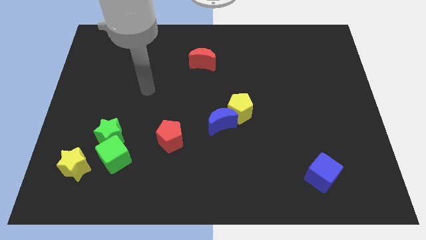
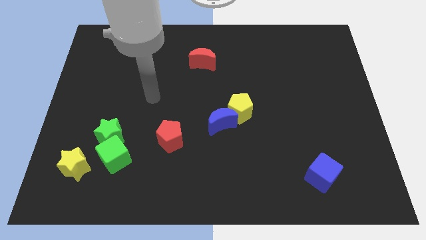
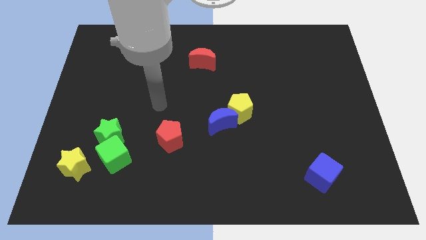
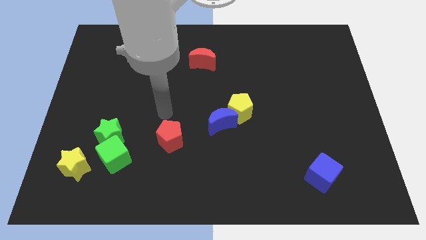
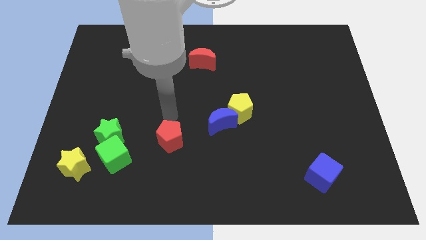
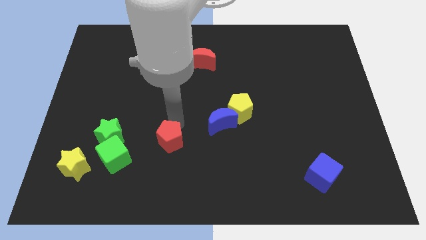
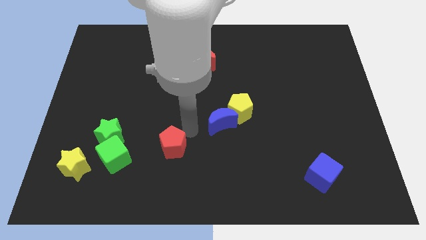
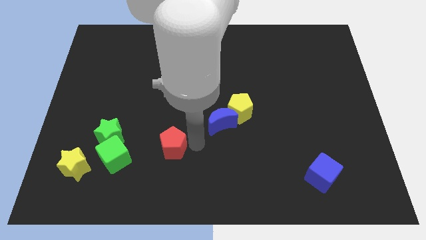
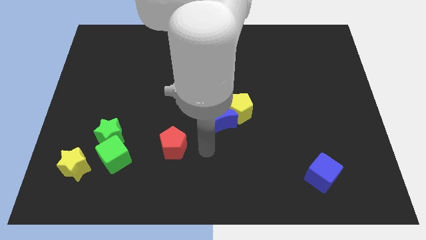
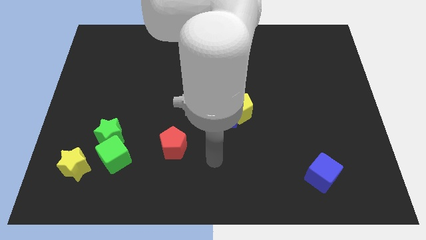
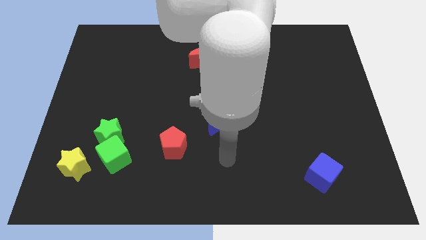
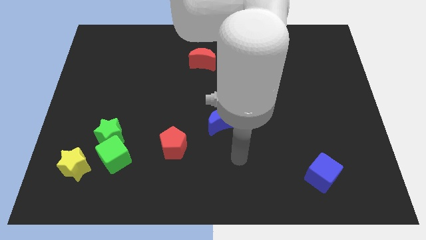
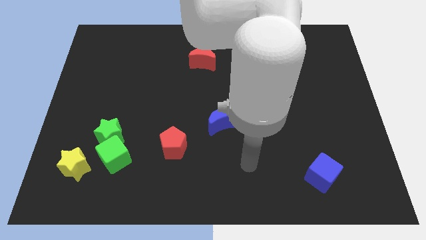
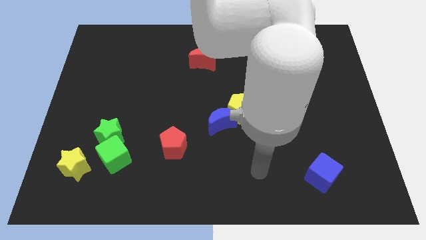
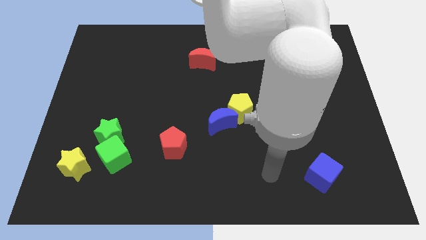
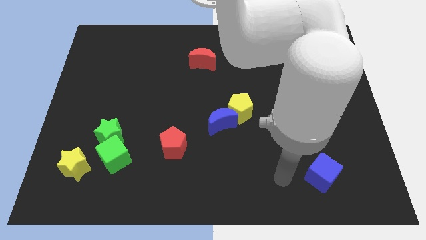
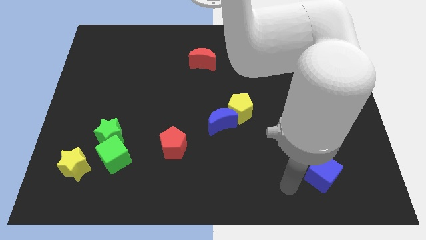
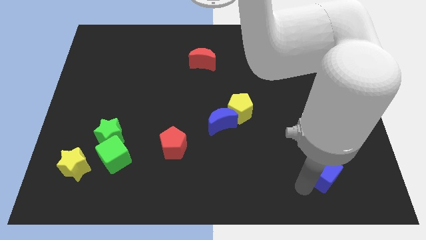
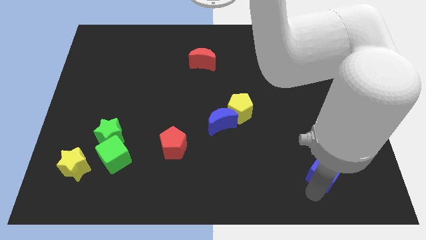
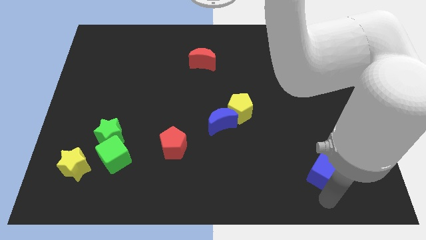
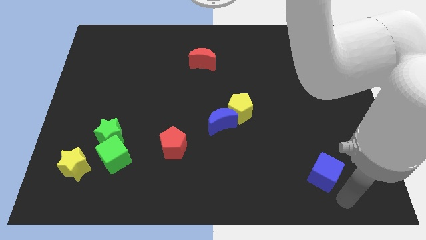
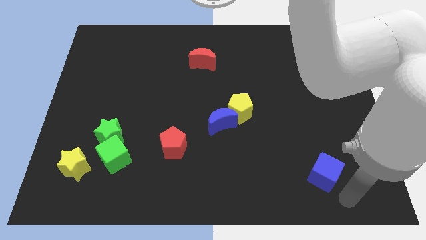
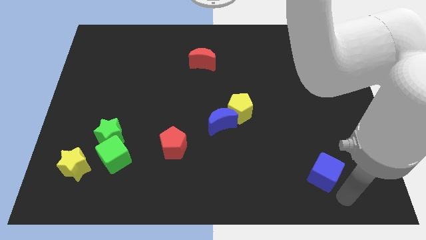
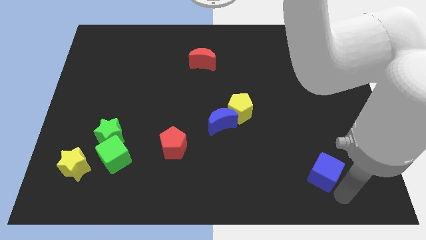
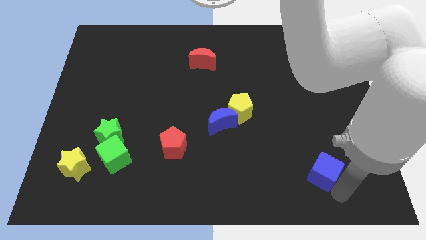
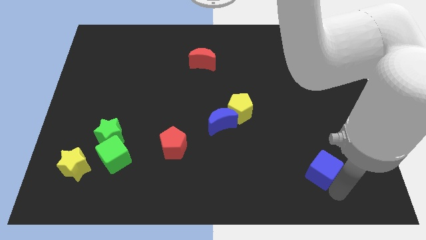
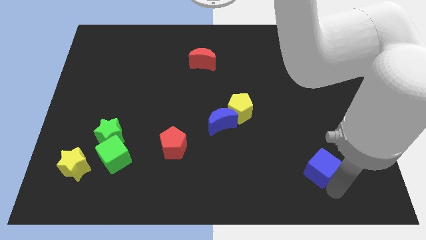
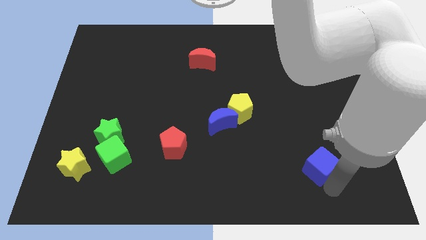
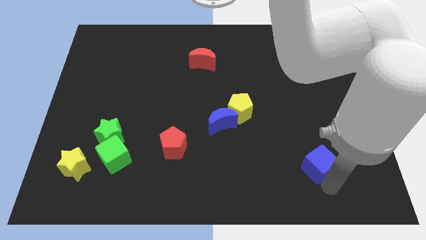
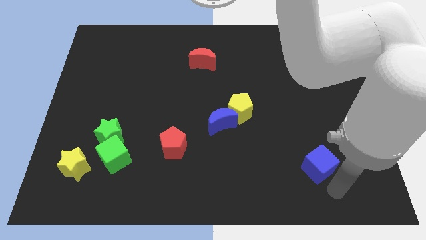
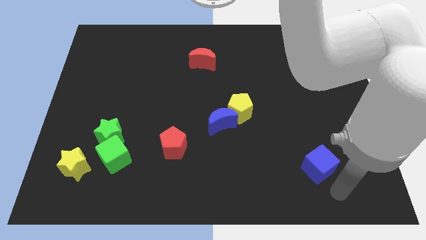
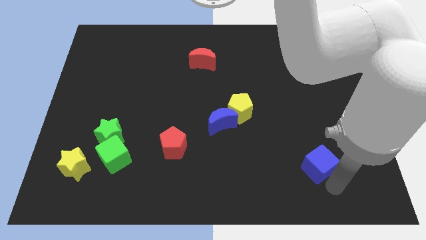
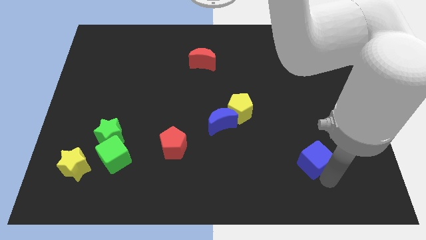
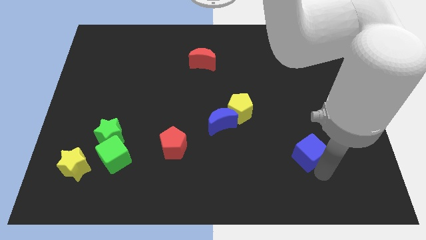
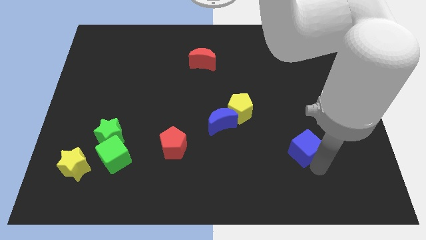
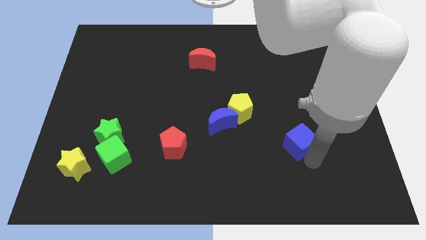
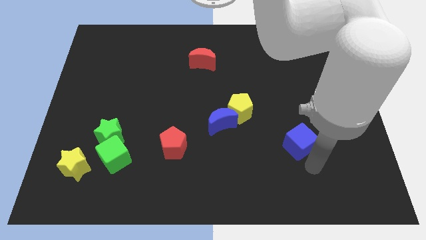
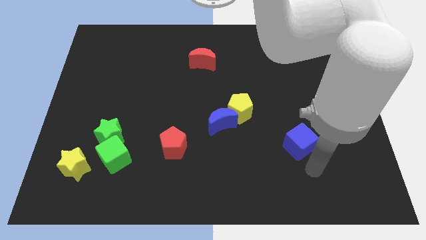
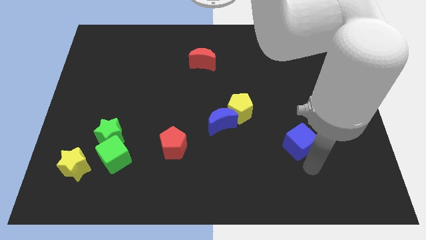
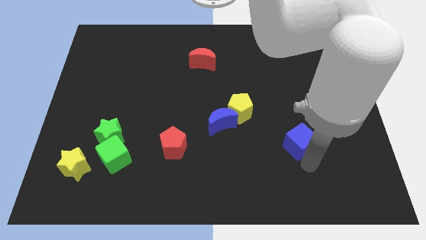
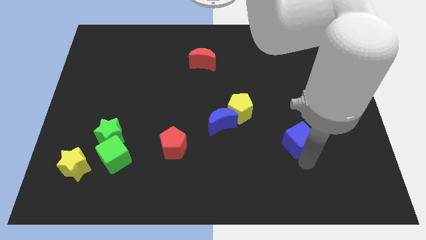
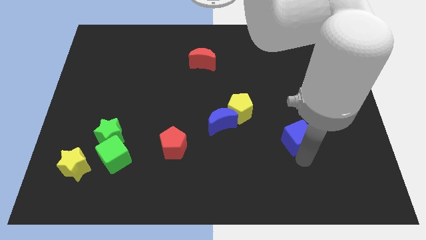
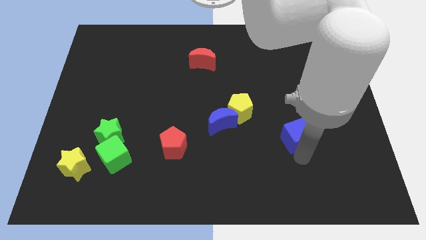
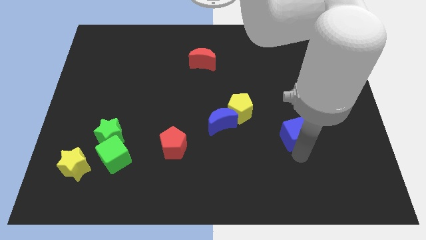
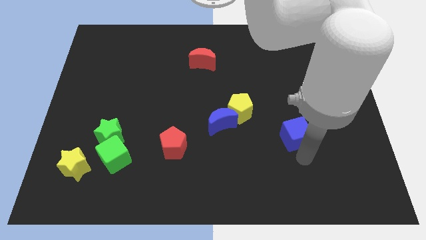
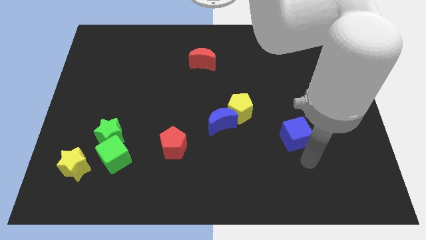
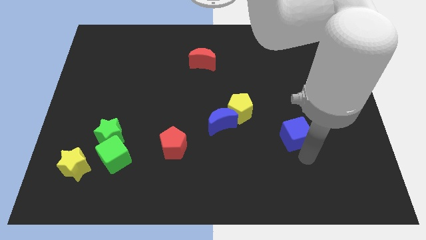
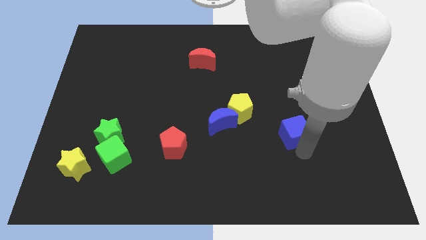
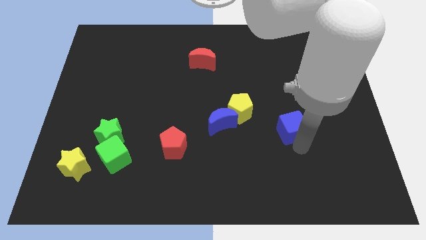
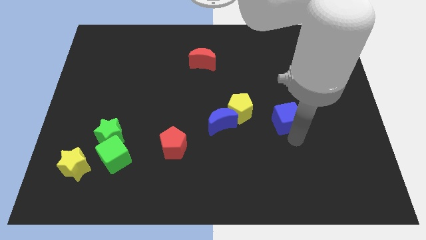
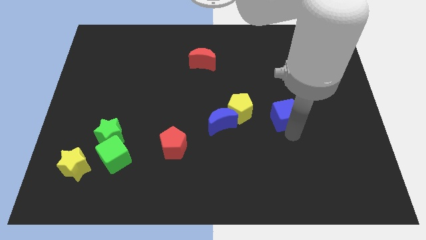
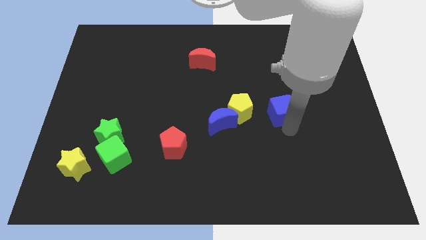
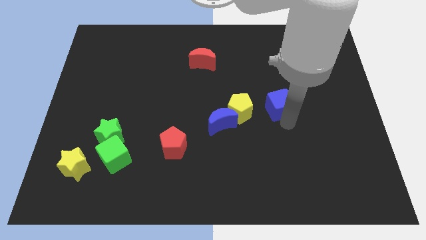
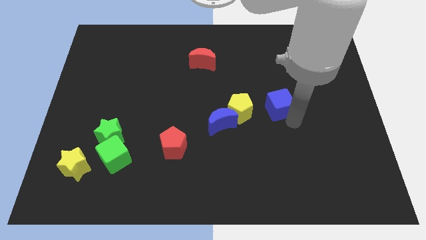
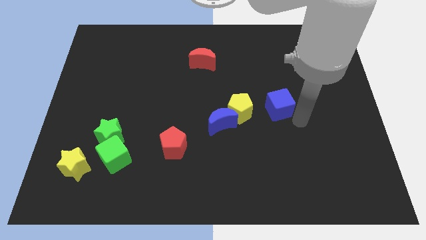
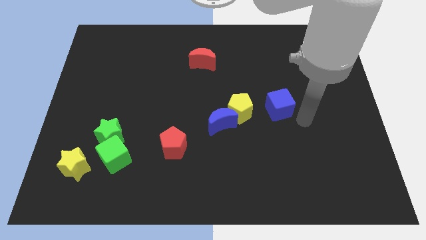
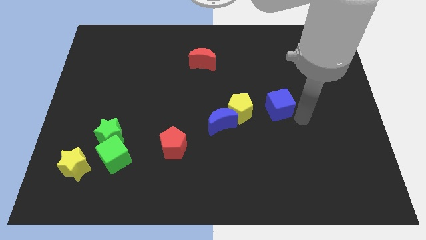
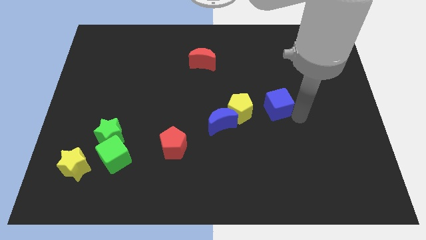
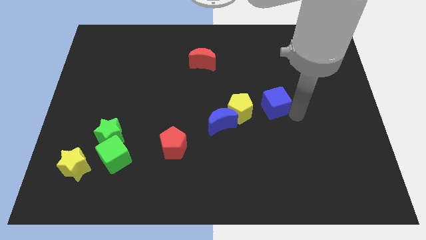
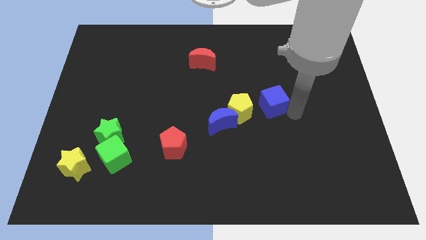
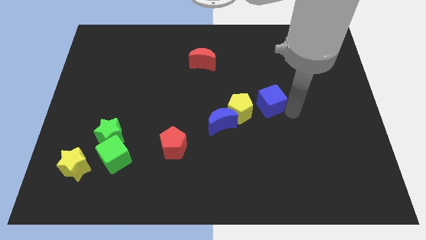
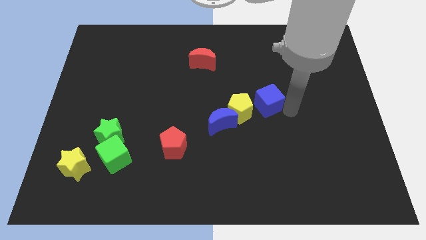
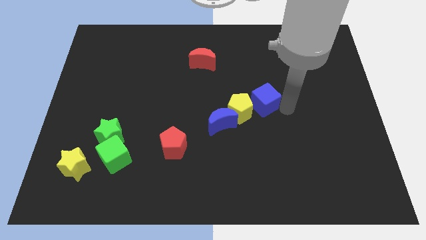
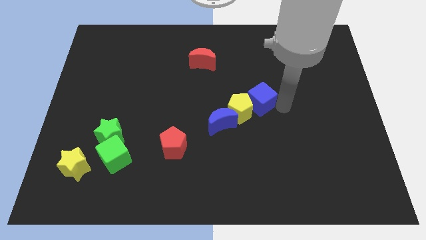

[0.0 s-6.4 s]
push the blue cube up and then to the left

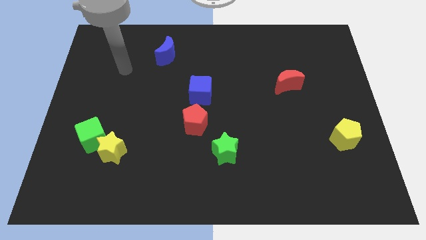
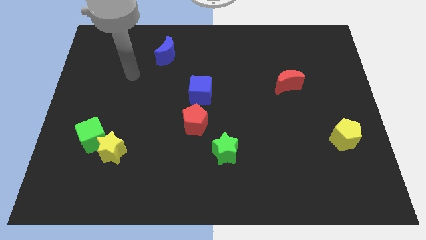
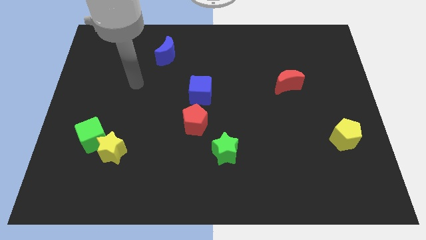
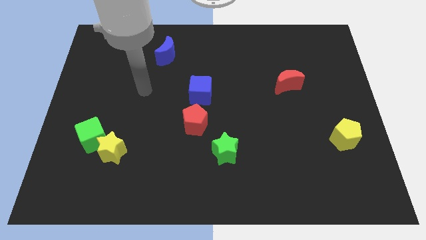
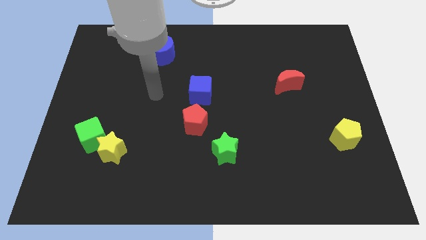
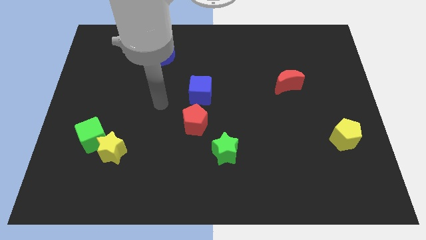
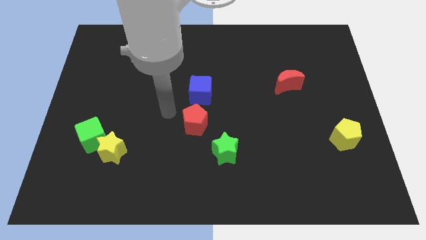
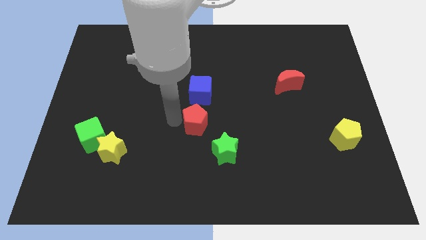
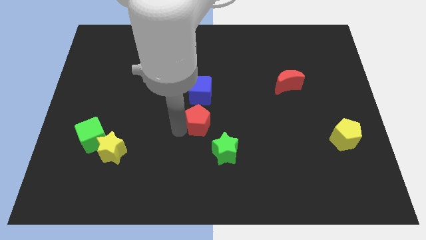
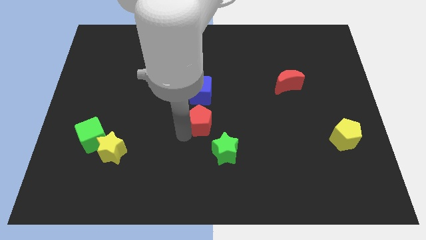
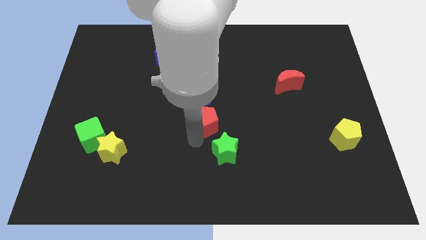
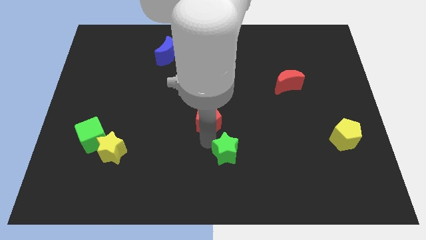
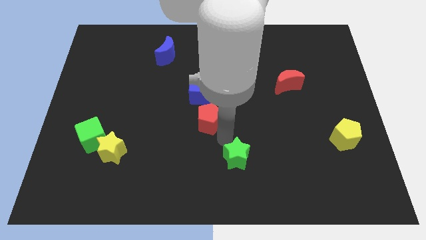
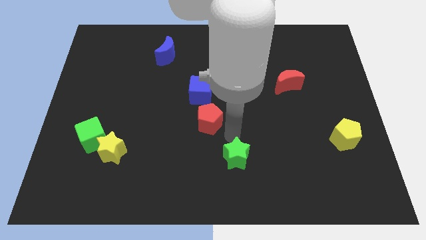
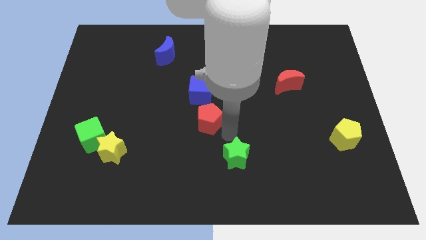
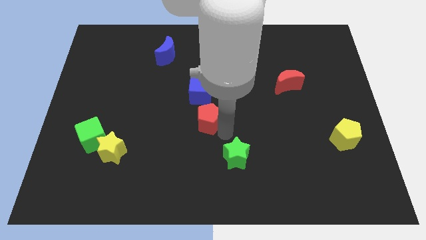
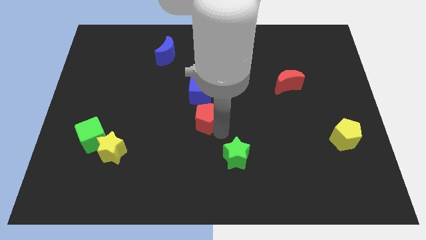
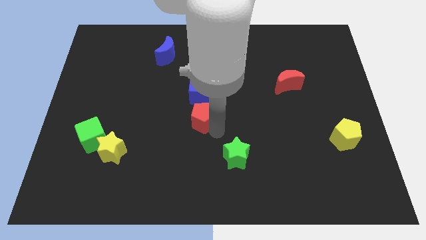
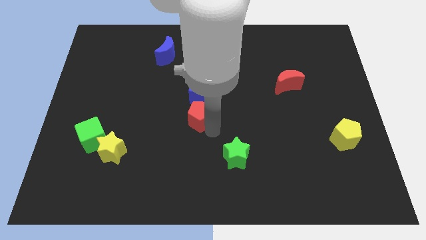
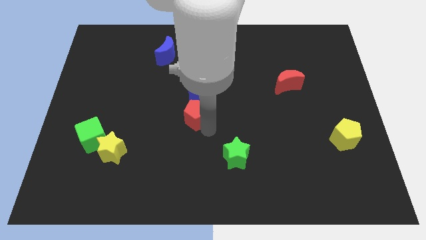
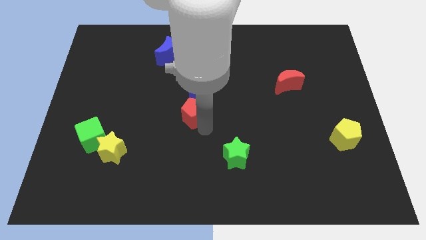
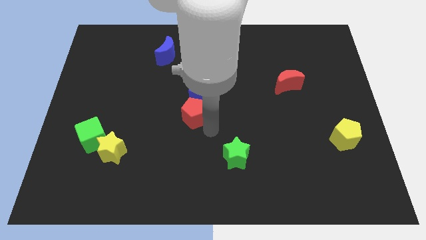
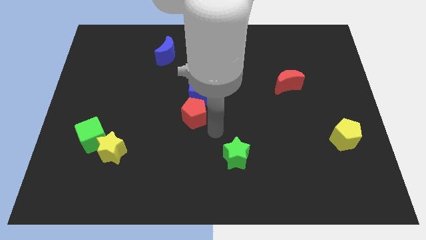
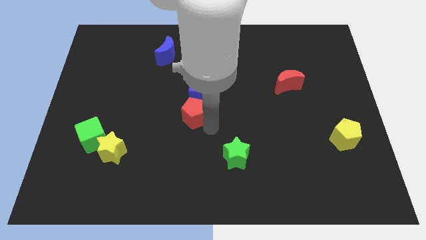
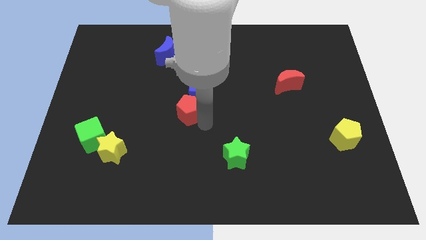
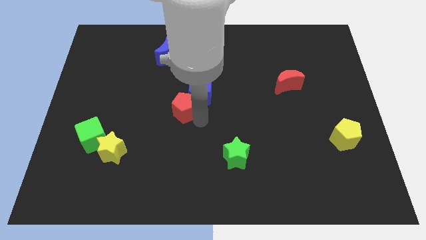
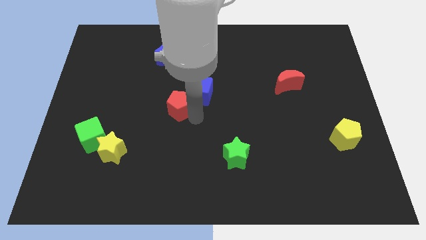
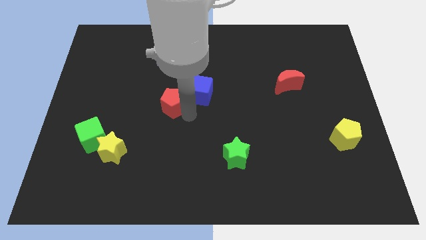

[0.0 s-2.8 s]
push the red pentagon up and to the left diagonally a little
